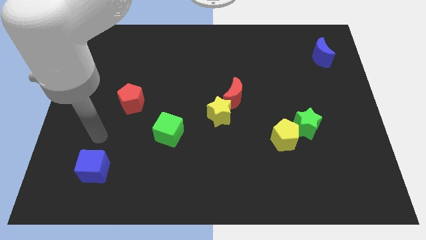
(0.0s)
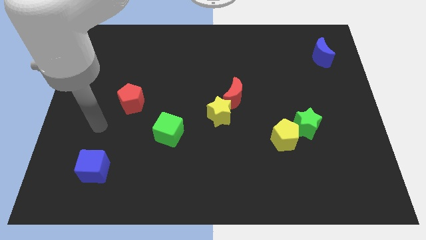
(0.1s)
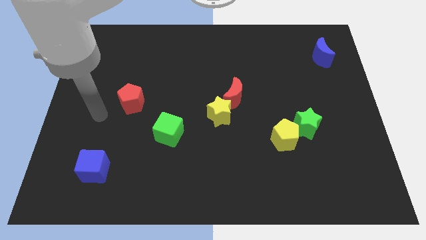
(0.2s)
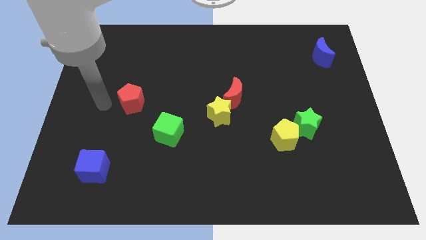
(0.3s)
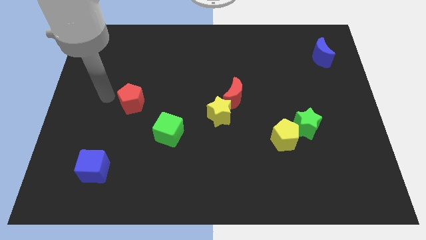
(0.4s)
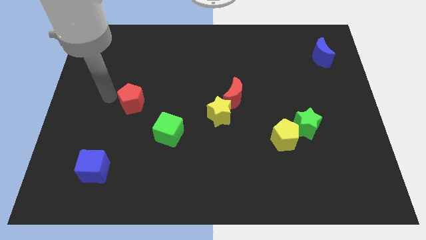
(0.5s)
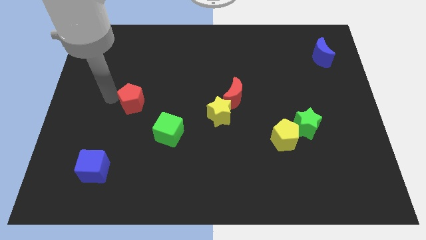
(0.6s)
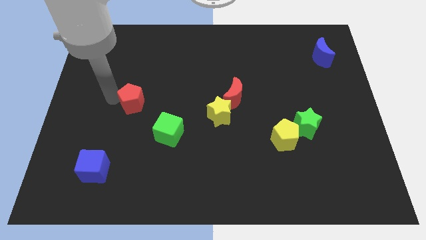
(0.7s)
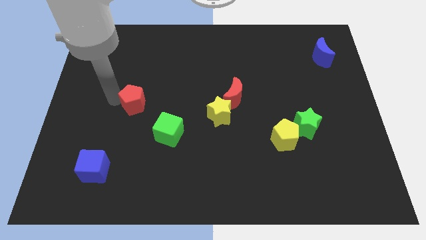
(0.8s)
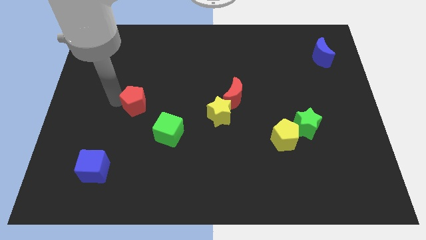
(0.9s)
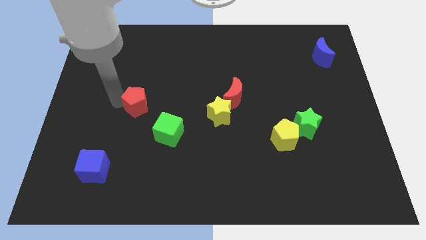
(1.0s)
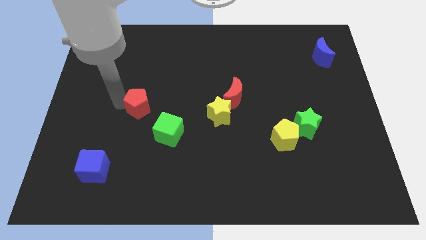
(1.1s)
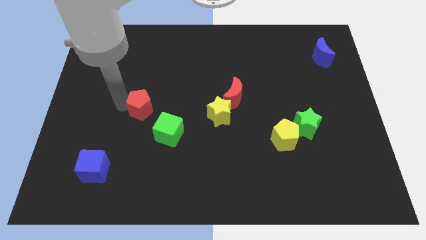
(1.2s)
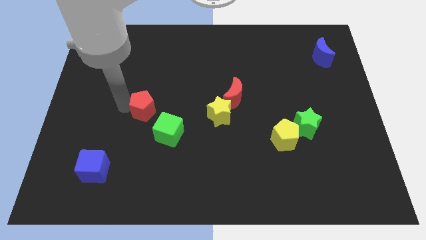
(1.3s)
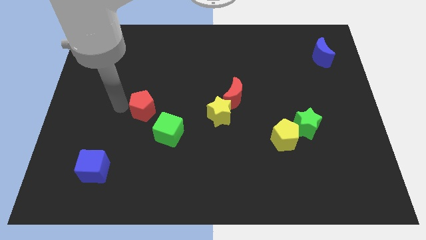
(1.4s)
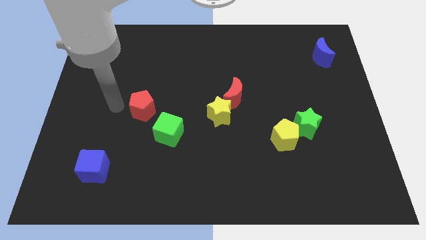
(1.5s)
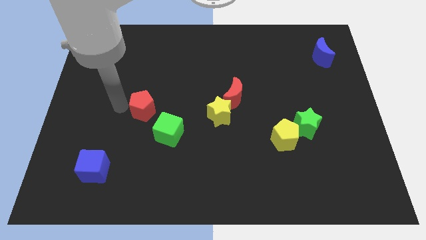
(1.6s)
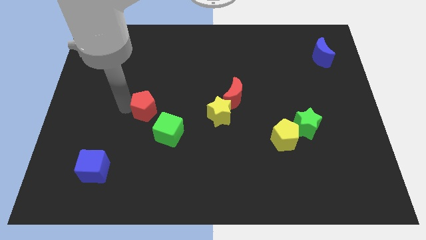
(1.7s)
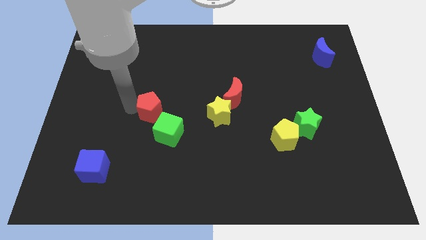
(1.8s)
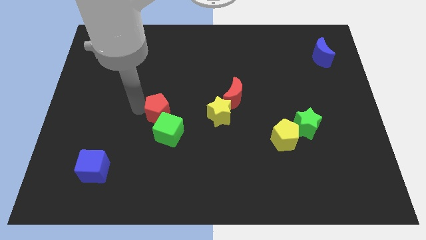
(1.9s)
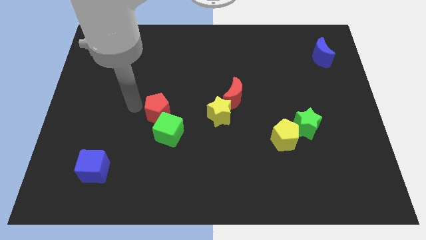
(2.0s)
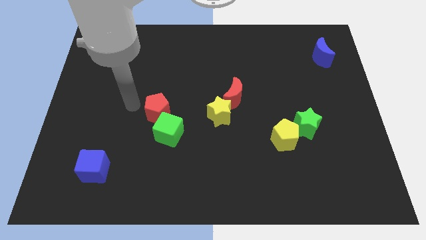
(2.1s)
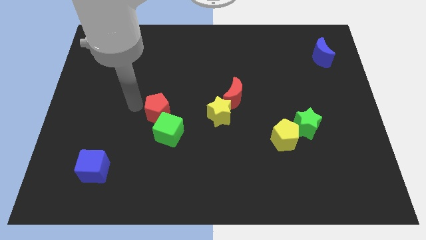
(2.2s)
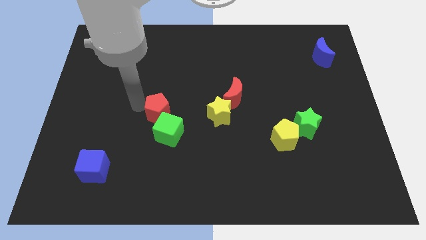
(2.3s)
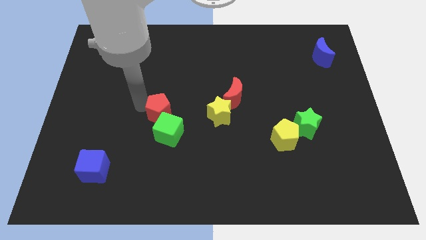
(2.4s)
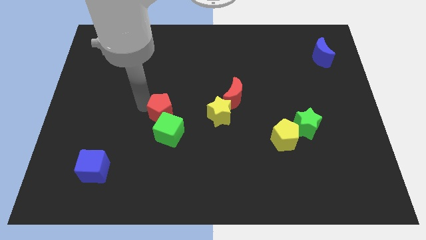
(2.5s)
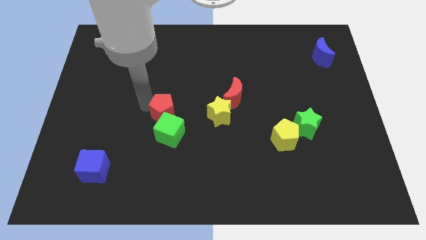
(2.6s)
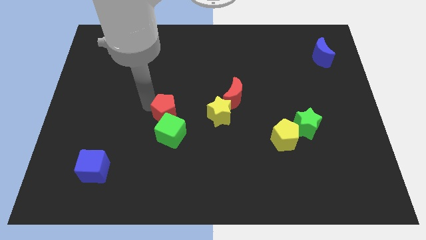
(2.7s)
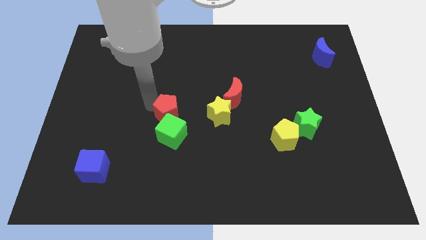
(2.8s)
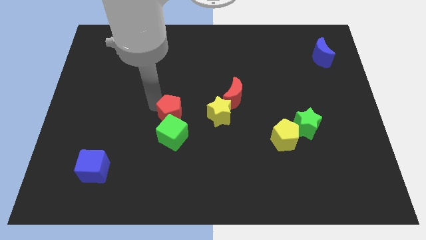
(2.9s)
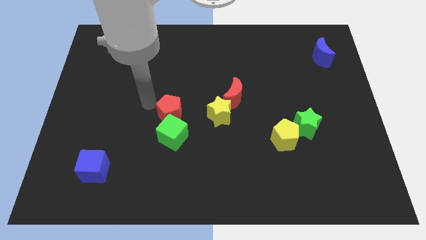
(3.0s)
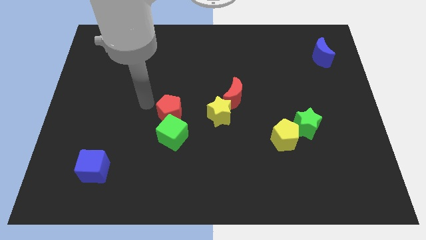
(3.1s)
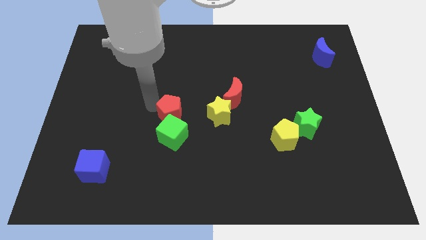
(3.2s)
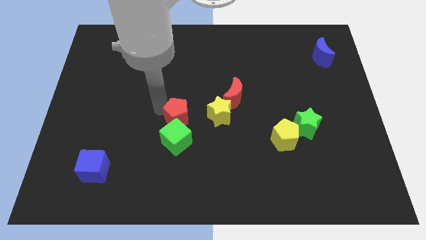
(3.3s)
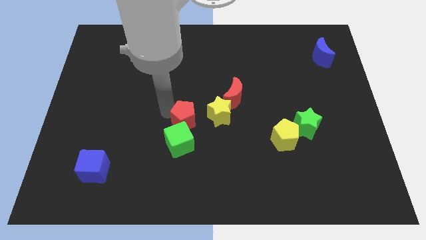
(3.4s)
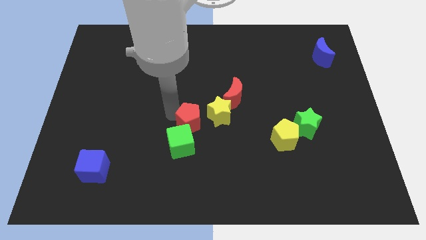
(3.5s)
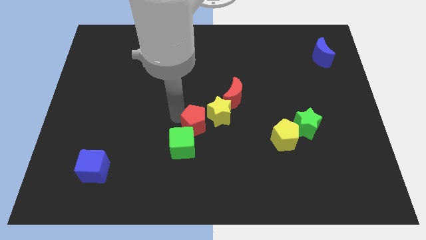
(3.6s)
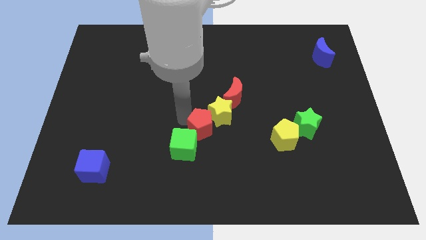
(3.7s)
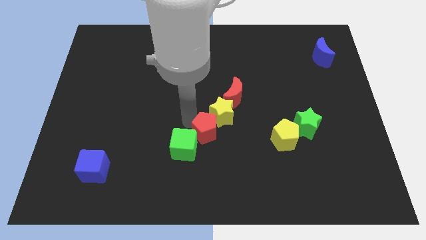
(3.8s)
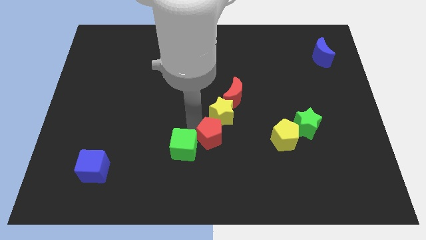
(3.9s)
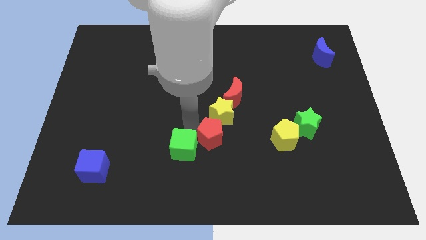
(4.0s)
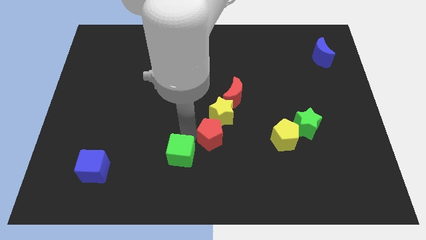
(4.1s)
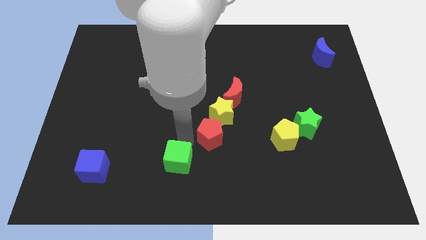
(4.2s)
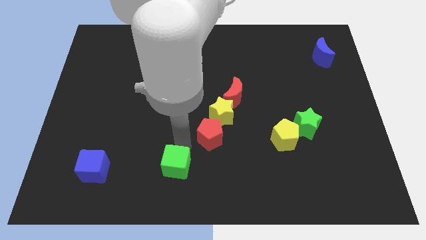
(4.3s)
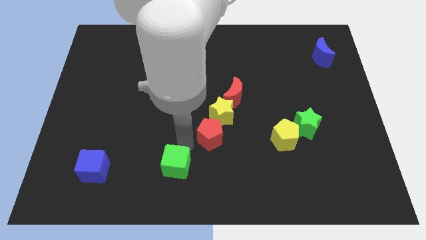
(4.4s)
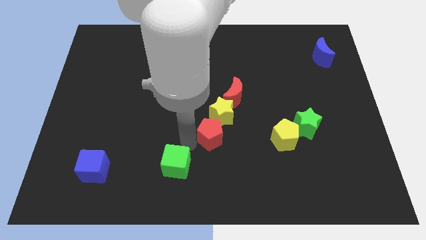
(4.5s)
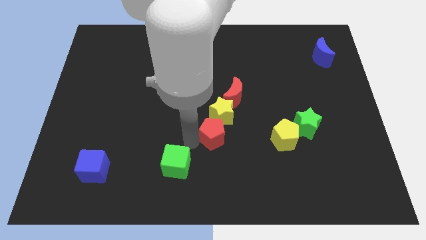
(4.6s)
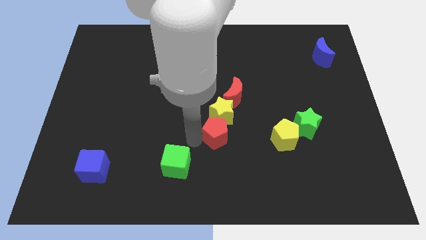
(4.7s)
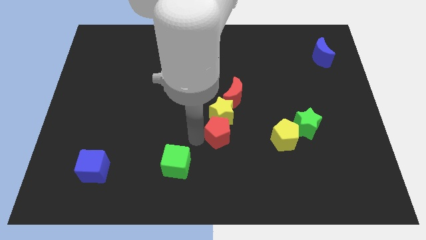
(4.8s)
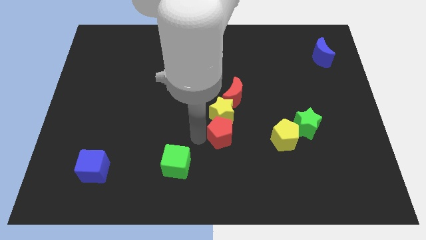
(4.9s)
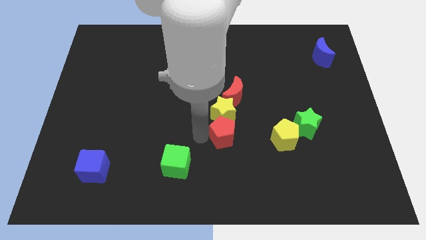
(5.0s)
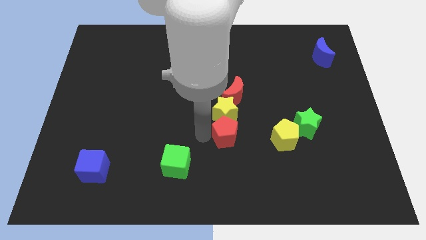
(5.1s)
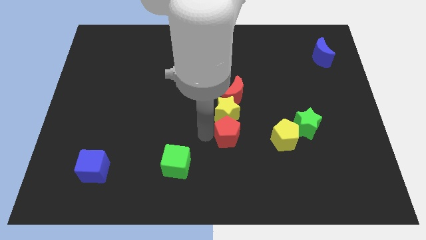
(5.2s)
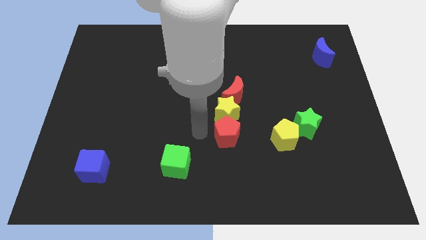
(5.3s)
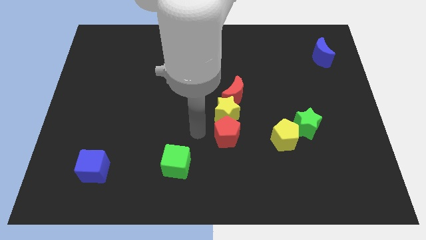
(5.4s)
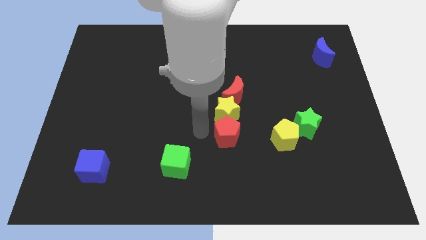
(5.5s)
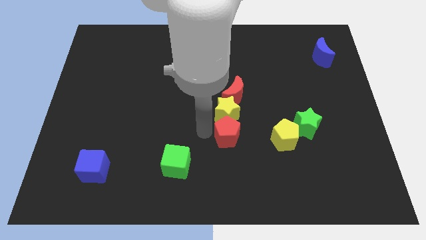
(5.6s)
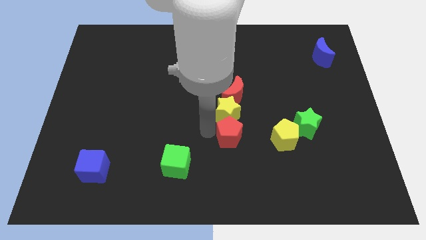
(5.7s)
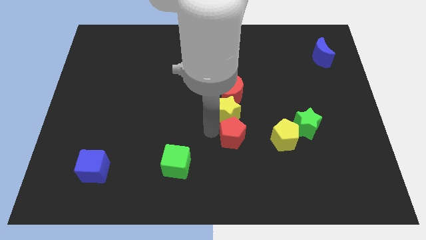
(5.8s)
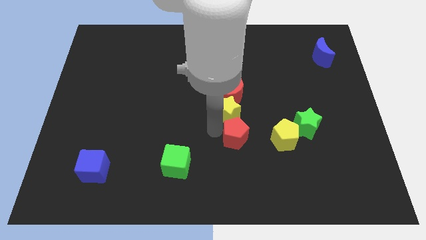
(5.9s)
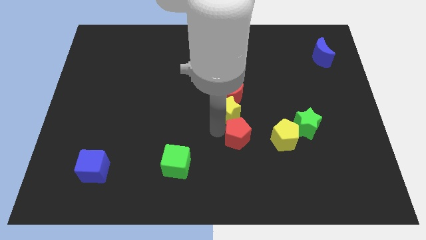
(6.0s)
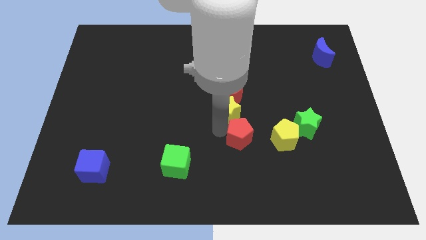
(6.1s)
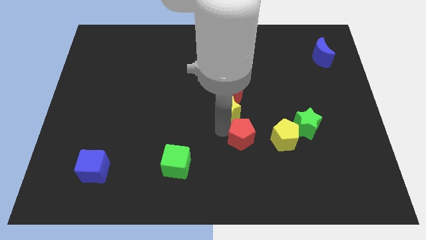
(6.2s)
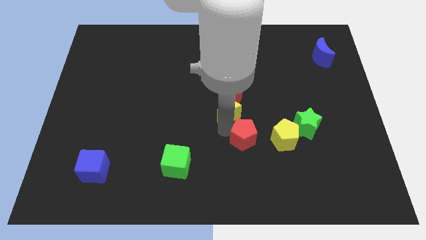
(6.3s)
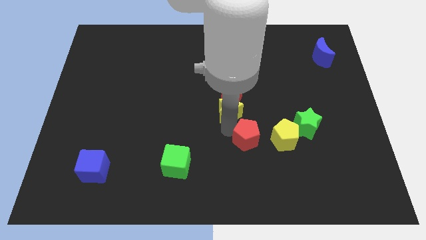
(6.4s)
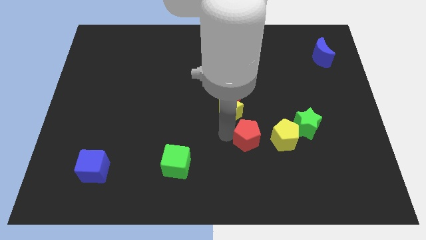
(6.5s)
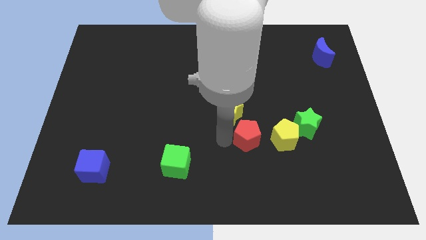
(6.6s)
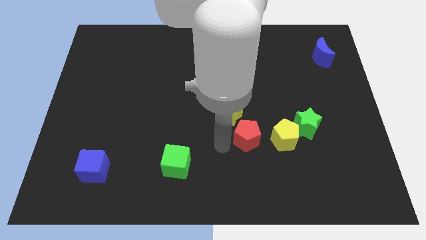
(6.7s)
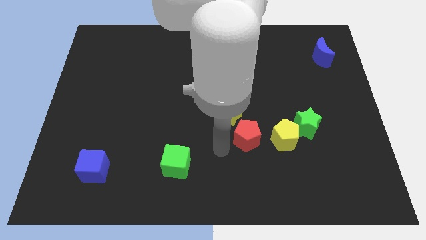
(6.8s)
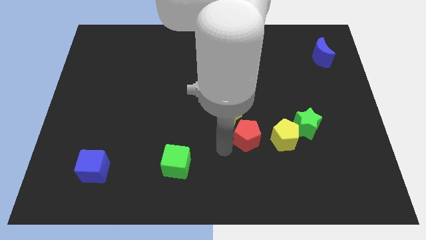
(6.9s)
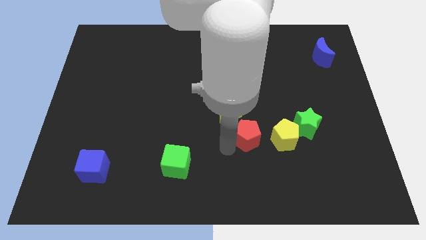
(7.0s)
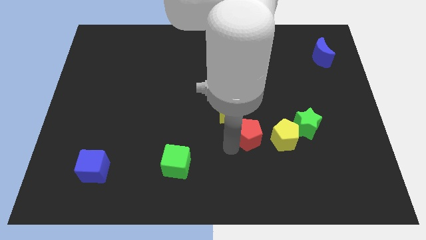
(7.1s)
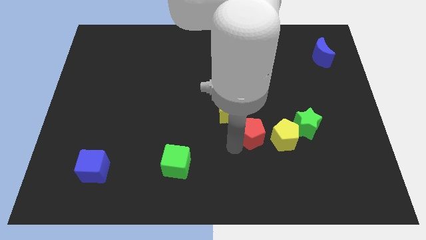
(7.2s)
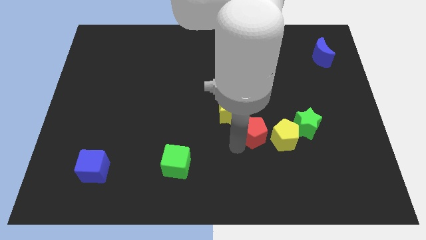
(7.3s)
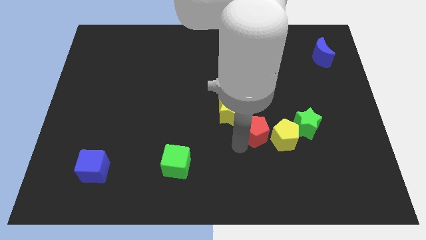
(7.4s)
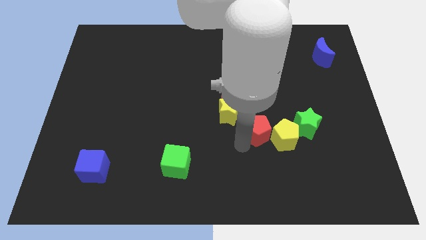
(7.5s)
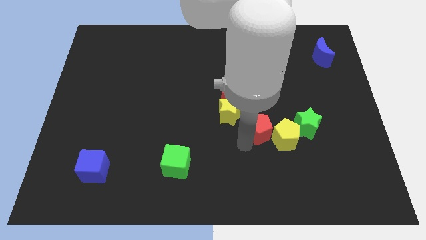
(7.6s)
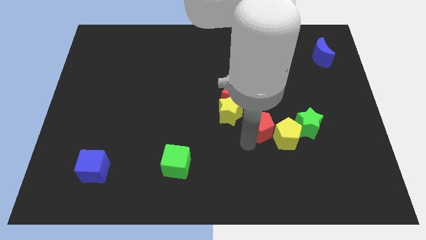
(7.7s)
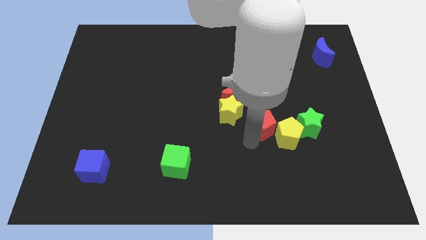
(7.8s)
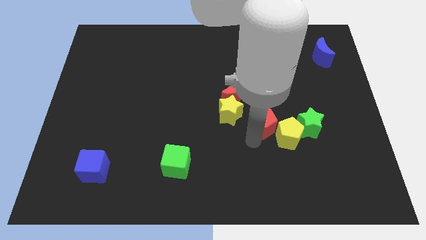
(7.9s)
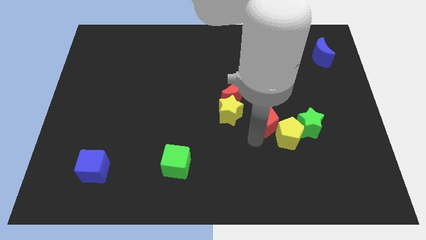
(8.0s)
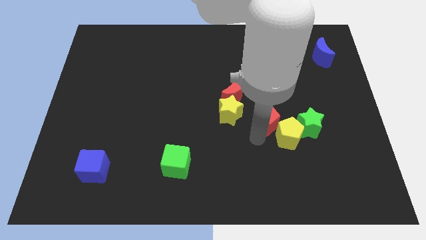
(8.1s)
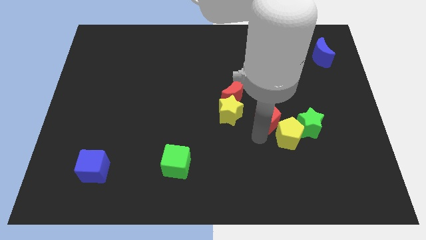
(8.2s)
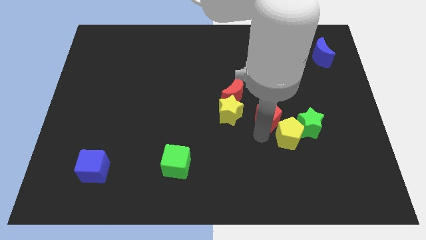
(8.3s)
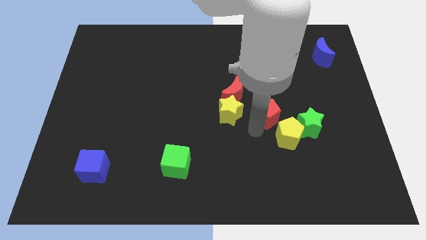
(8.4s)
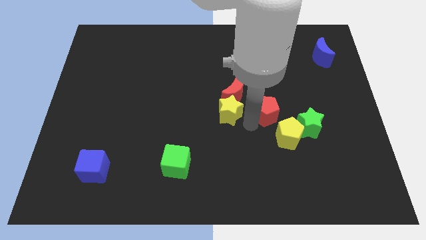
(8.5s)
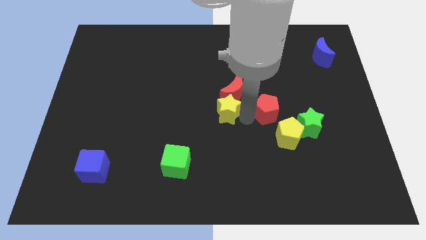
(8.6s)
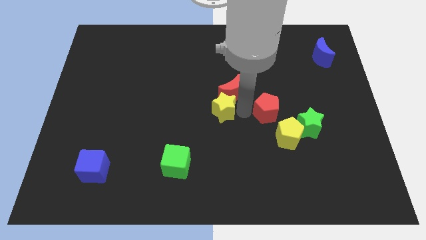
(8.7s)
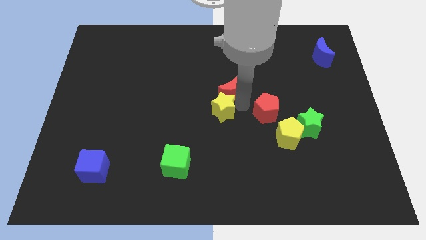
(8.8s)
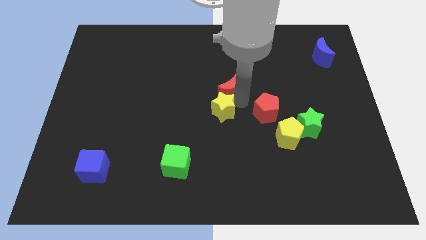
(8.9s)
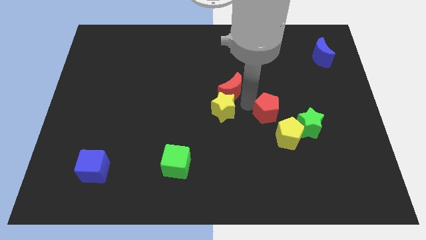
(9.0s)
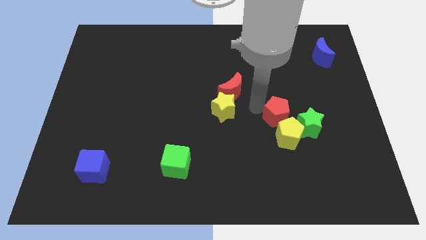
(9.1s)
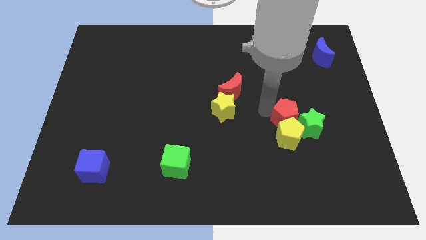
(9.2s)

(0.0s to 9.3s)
slide the red pentagon next to the green star
